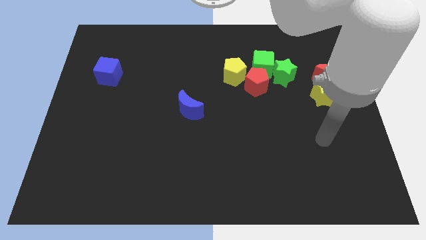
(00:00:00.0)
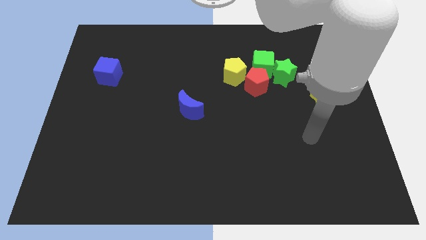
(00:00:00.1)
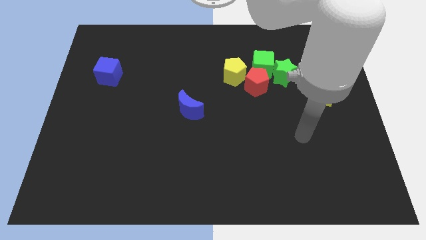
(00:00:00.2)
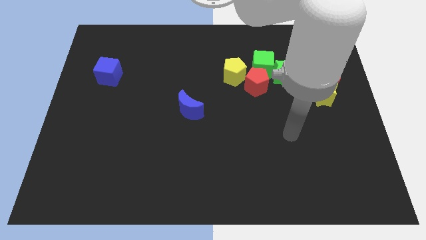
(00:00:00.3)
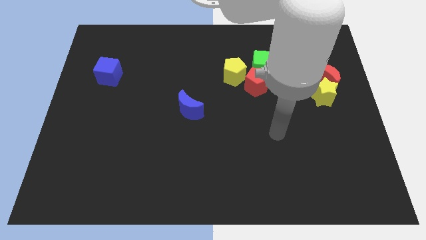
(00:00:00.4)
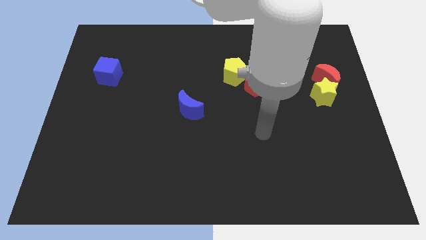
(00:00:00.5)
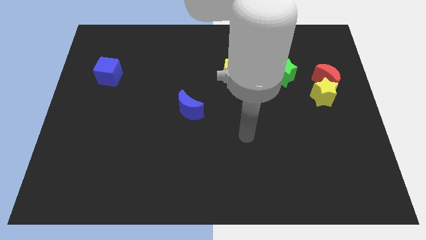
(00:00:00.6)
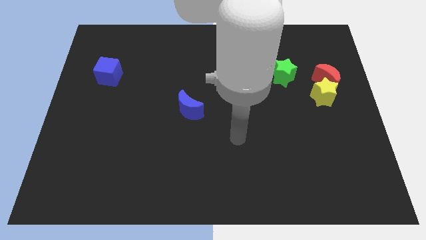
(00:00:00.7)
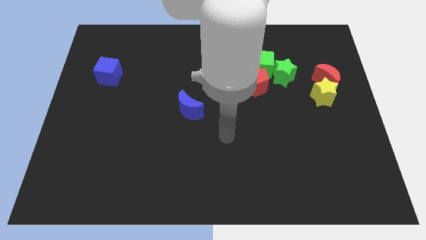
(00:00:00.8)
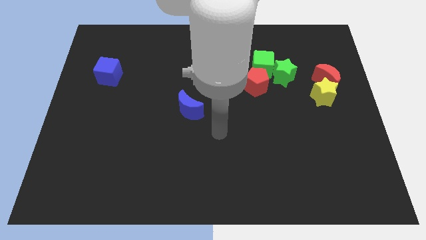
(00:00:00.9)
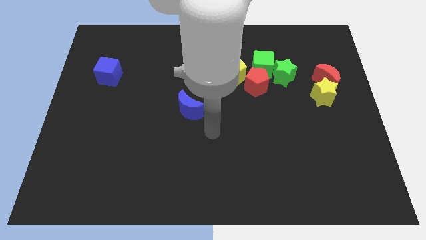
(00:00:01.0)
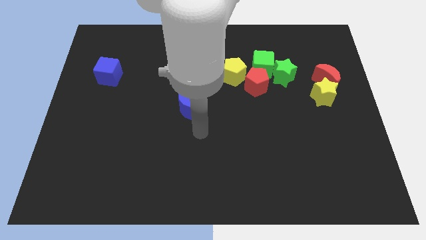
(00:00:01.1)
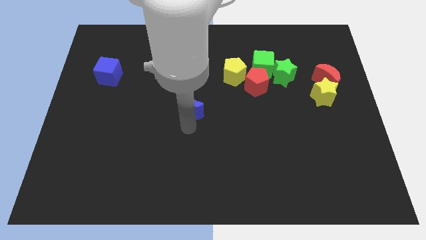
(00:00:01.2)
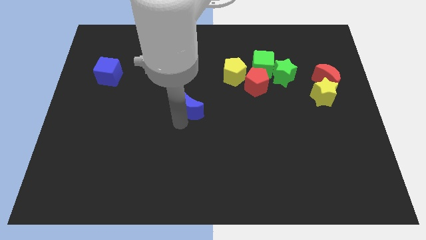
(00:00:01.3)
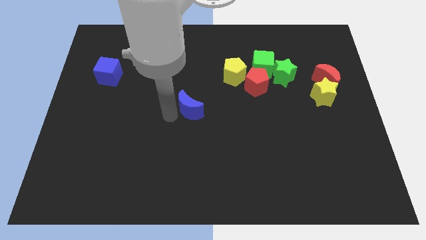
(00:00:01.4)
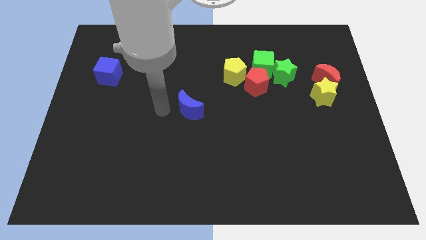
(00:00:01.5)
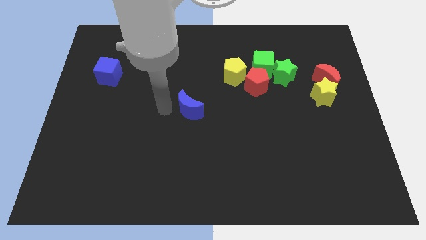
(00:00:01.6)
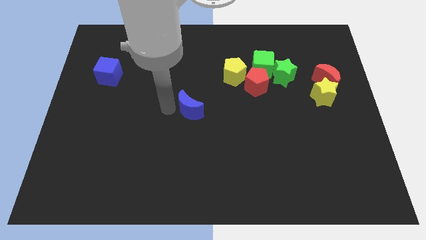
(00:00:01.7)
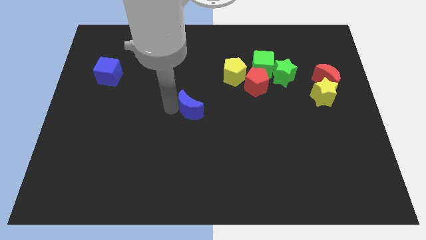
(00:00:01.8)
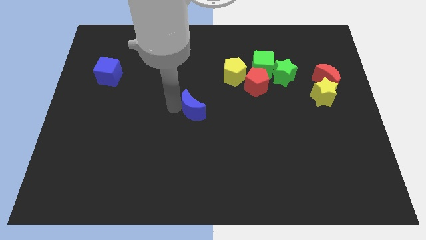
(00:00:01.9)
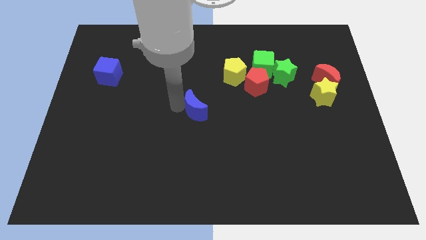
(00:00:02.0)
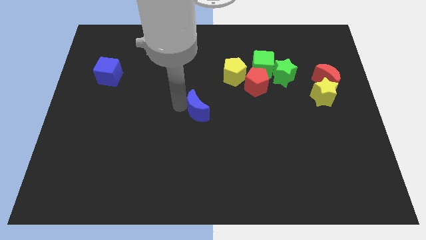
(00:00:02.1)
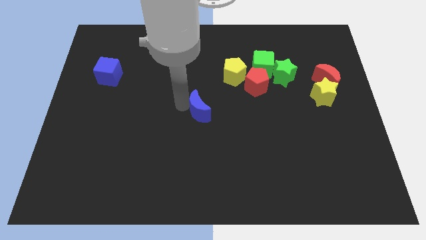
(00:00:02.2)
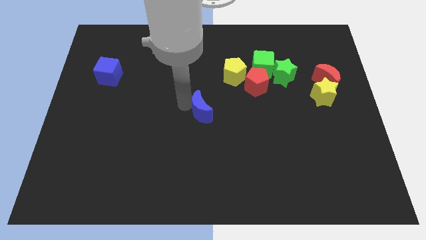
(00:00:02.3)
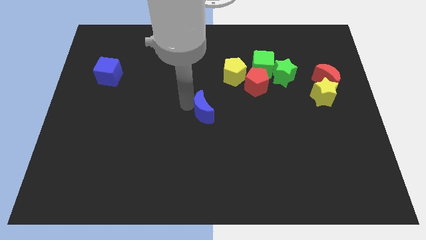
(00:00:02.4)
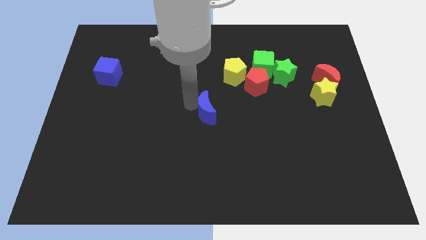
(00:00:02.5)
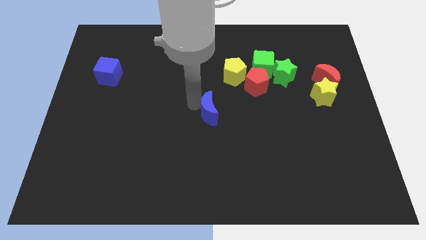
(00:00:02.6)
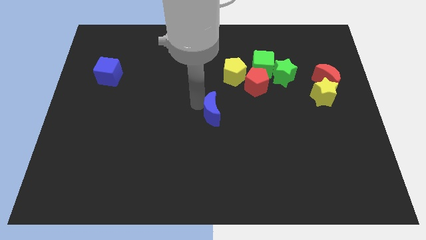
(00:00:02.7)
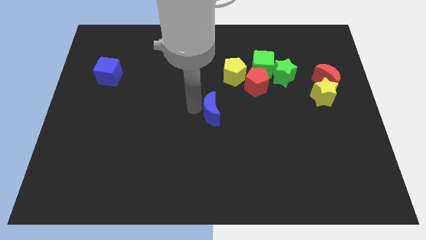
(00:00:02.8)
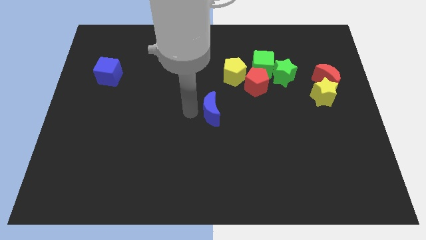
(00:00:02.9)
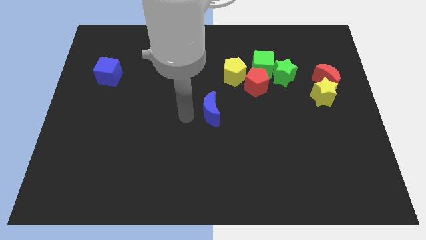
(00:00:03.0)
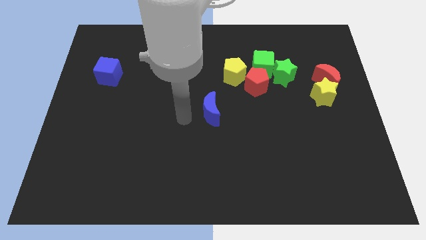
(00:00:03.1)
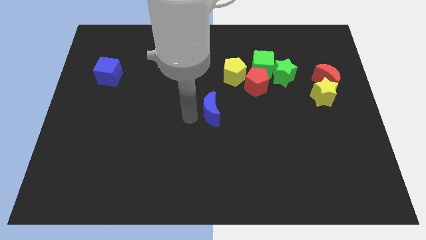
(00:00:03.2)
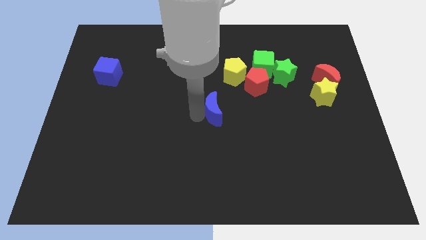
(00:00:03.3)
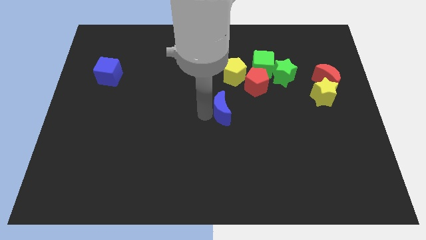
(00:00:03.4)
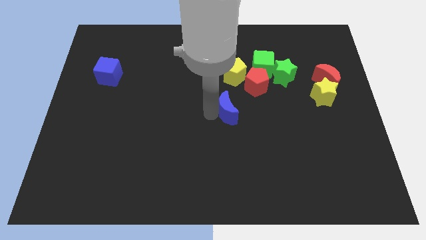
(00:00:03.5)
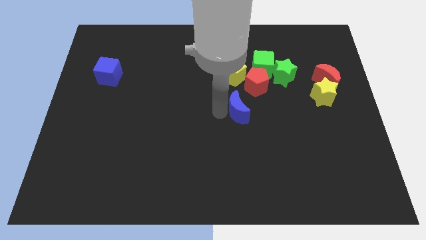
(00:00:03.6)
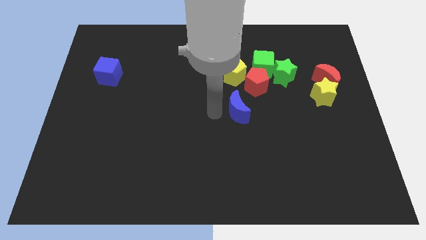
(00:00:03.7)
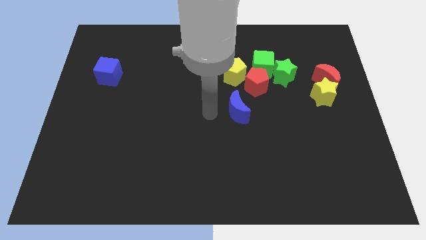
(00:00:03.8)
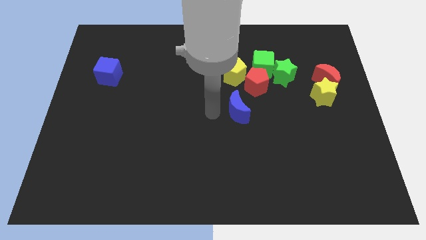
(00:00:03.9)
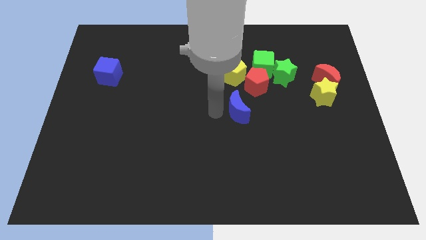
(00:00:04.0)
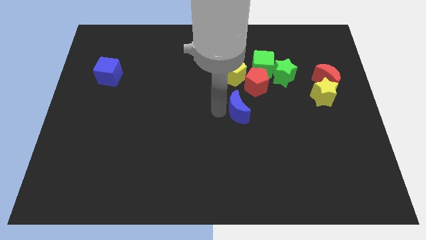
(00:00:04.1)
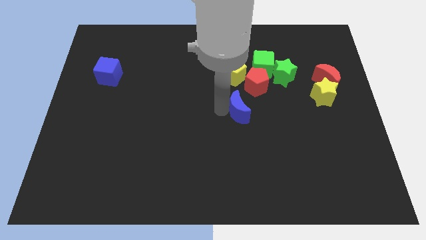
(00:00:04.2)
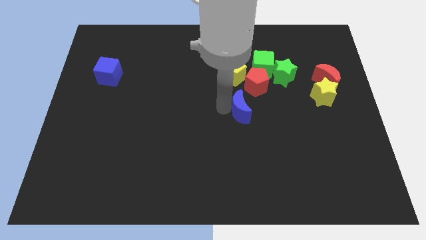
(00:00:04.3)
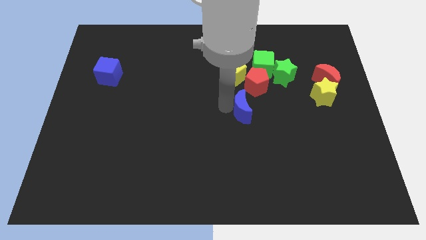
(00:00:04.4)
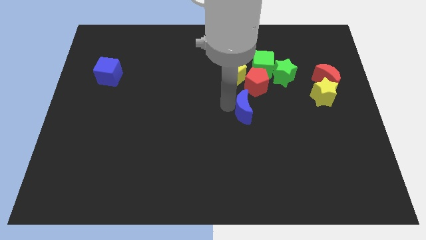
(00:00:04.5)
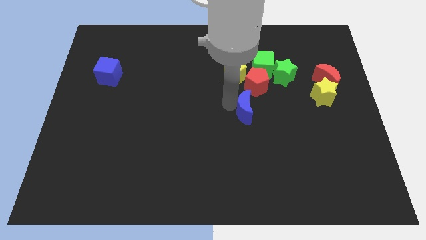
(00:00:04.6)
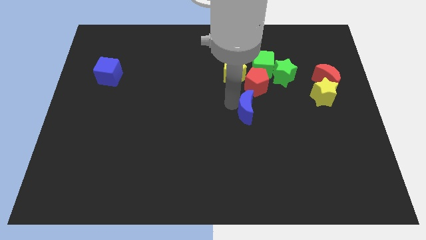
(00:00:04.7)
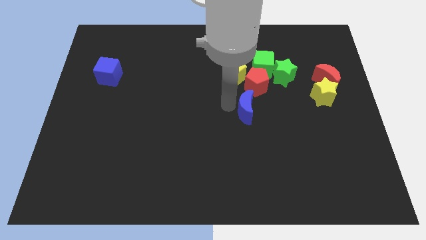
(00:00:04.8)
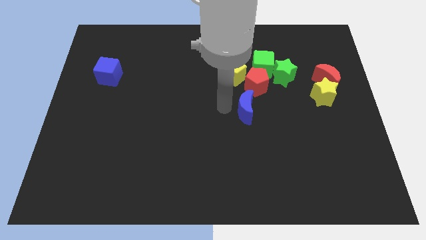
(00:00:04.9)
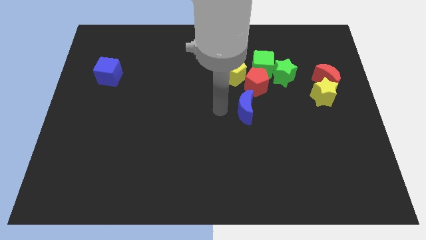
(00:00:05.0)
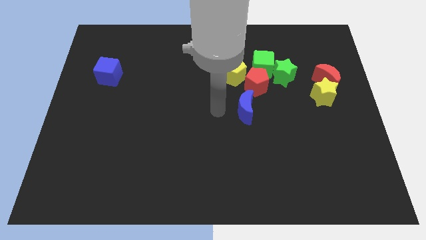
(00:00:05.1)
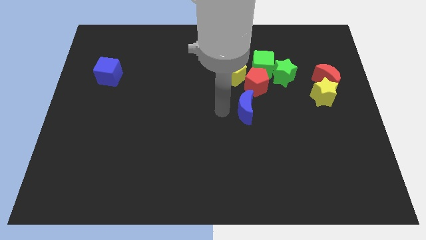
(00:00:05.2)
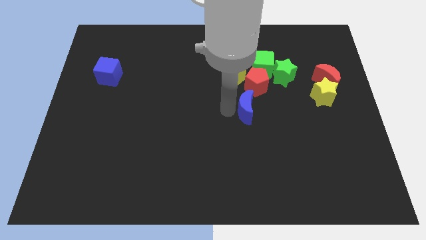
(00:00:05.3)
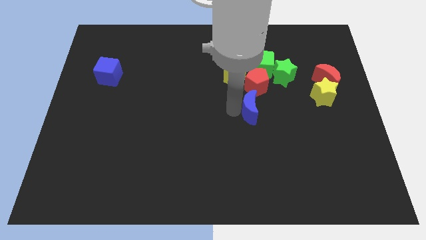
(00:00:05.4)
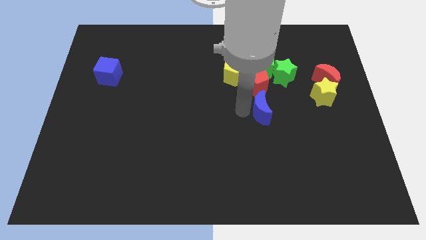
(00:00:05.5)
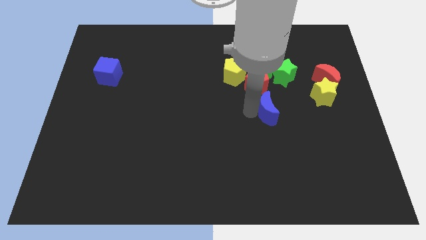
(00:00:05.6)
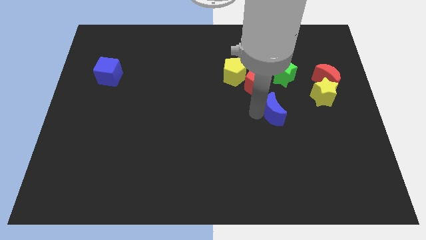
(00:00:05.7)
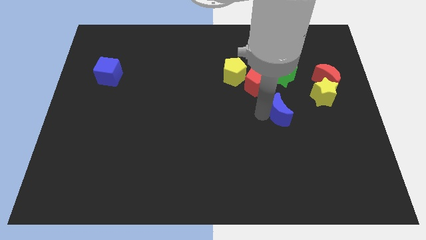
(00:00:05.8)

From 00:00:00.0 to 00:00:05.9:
slide the blue moon to the right

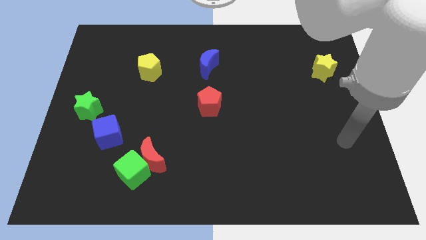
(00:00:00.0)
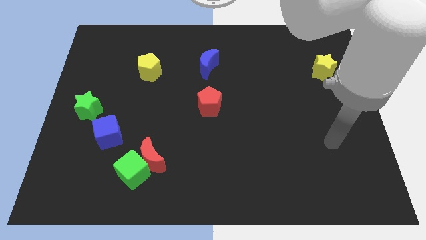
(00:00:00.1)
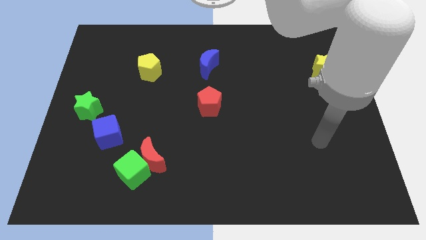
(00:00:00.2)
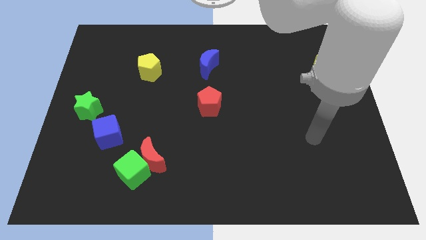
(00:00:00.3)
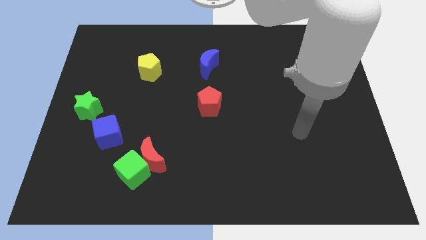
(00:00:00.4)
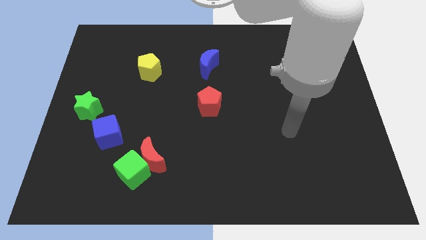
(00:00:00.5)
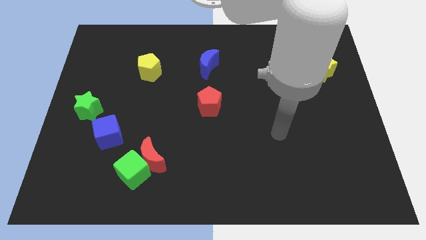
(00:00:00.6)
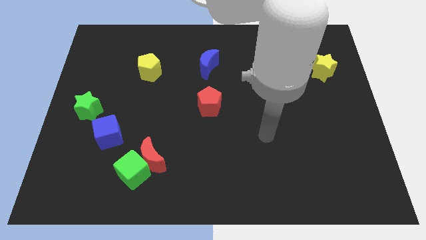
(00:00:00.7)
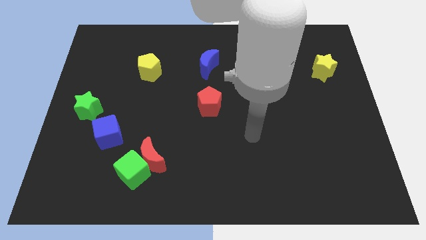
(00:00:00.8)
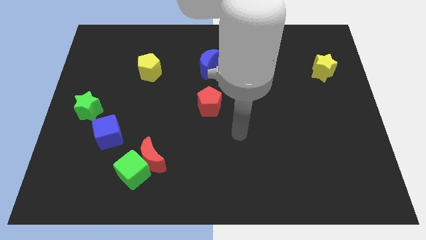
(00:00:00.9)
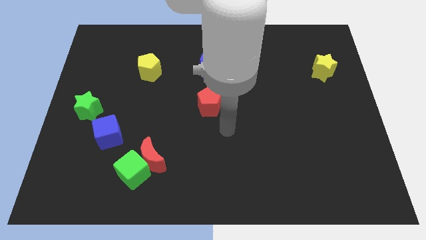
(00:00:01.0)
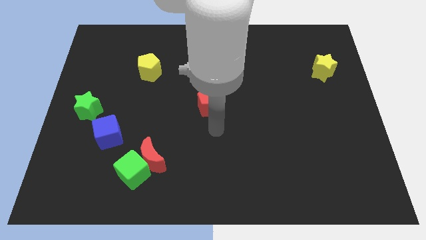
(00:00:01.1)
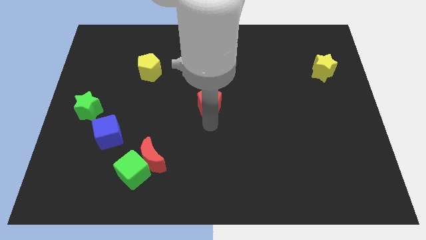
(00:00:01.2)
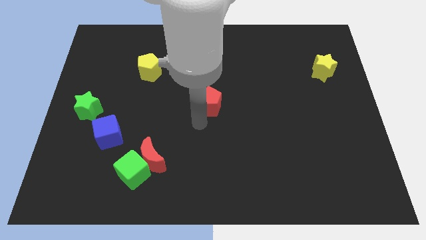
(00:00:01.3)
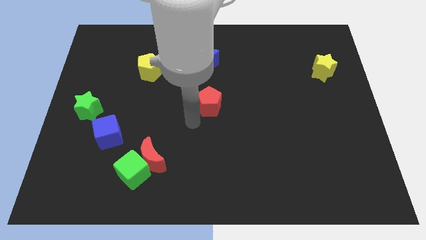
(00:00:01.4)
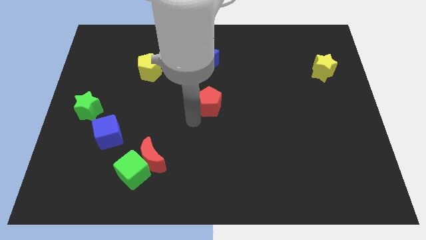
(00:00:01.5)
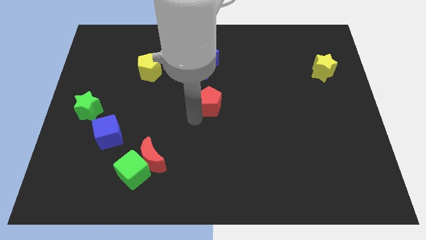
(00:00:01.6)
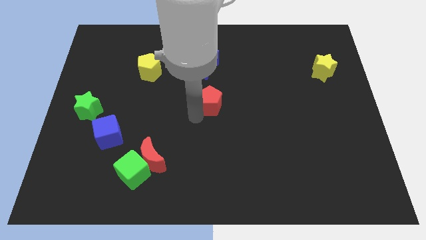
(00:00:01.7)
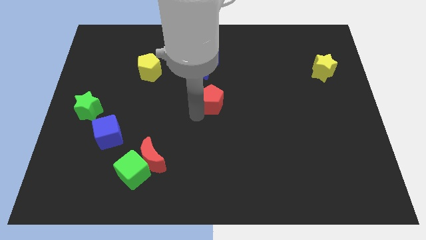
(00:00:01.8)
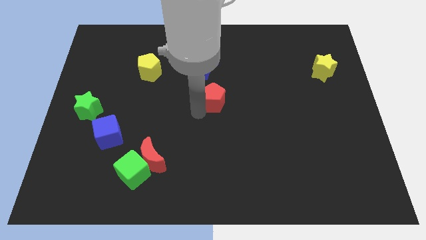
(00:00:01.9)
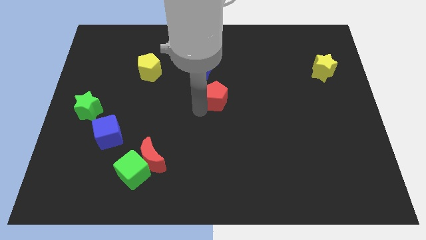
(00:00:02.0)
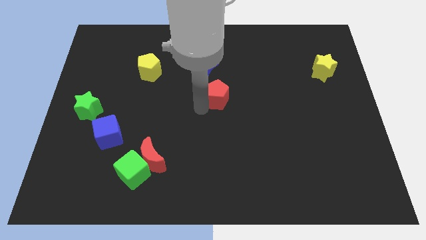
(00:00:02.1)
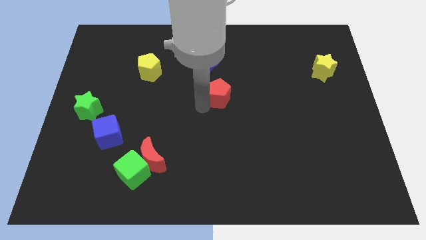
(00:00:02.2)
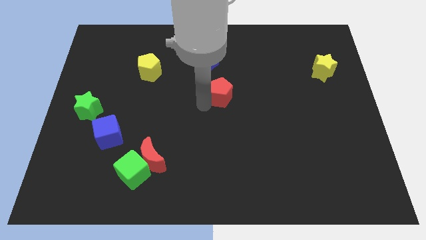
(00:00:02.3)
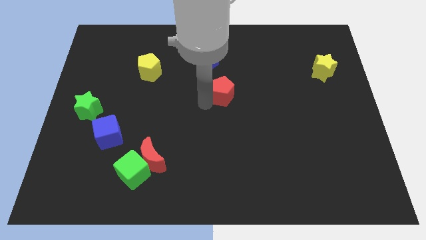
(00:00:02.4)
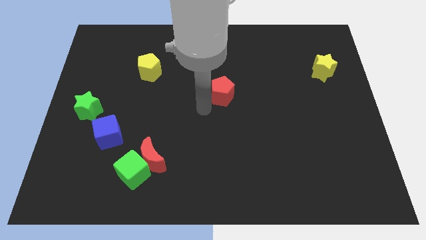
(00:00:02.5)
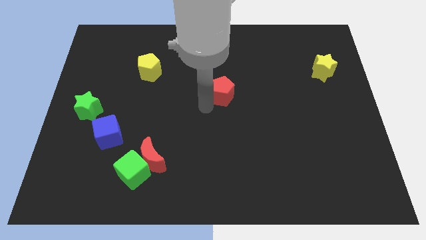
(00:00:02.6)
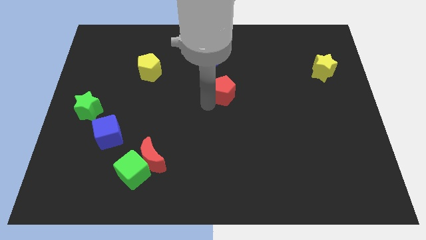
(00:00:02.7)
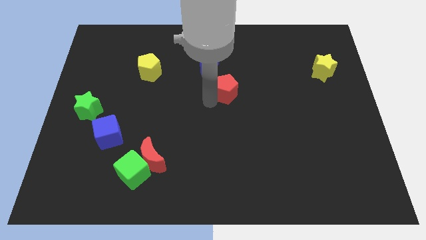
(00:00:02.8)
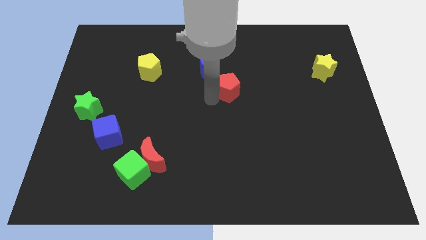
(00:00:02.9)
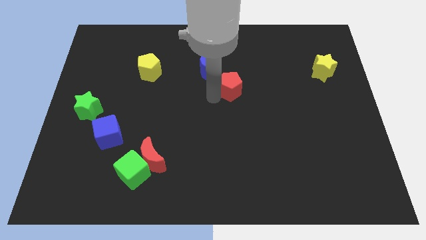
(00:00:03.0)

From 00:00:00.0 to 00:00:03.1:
slightly push the red pentagon diagonally up and to the right
